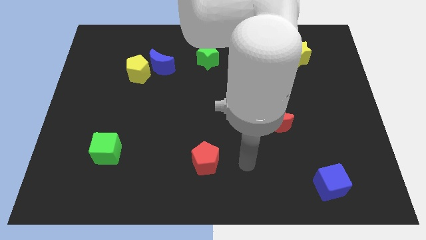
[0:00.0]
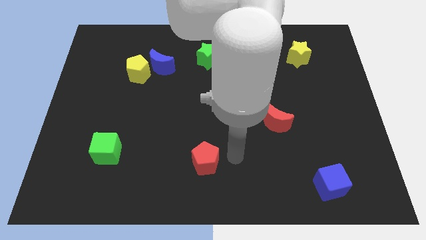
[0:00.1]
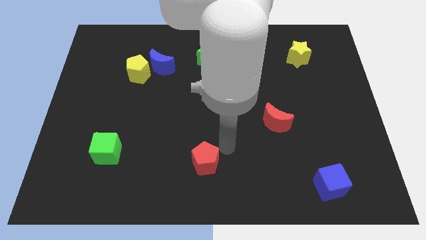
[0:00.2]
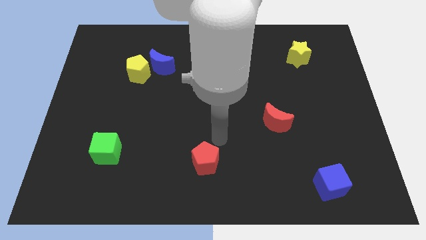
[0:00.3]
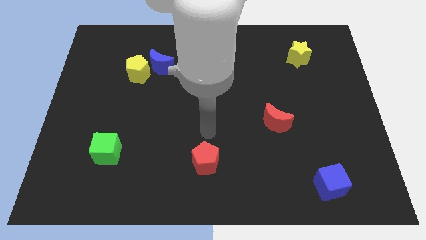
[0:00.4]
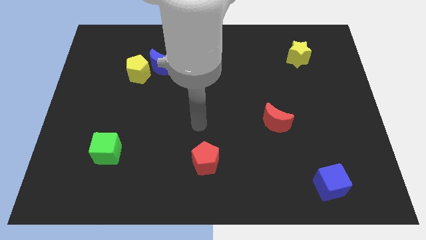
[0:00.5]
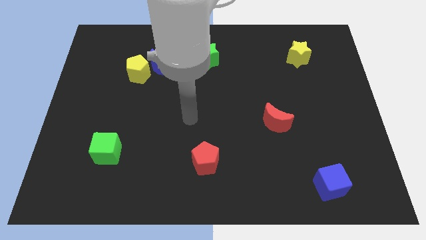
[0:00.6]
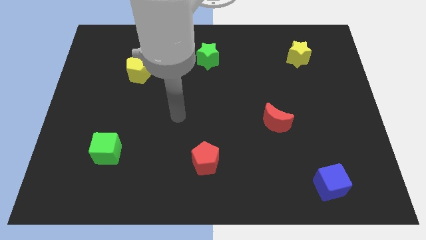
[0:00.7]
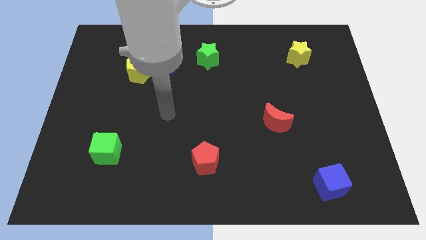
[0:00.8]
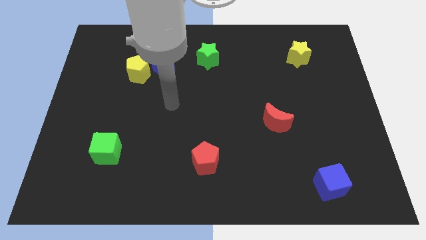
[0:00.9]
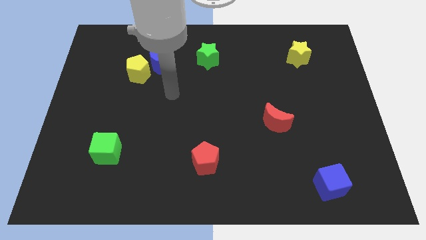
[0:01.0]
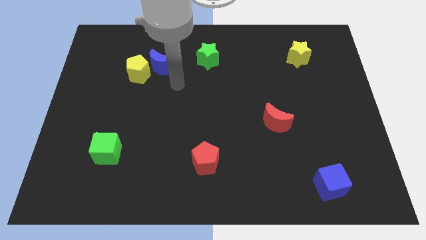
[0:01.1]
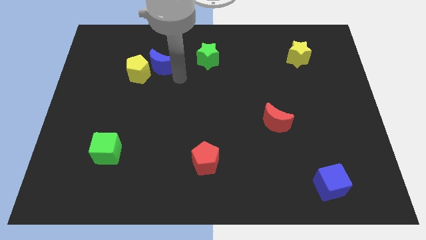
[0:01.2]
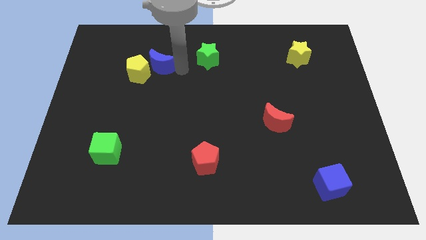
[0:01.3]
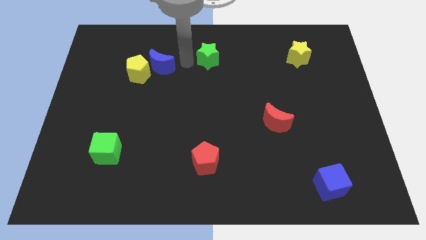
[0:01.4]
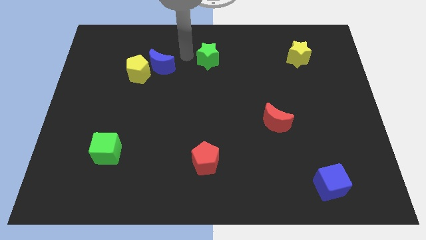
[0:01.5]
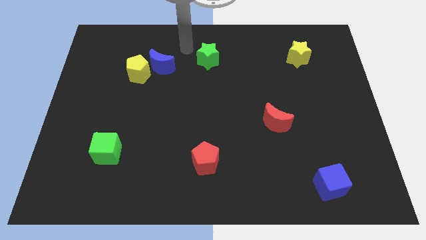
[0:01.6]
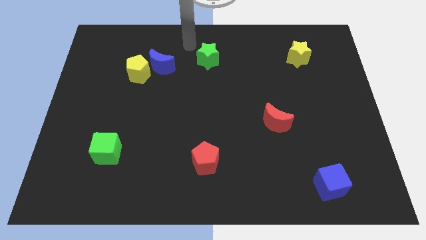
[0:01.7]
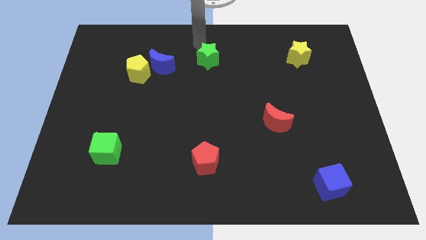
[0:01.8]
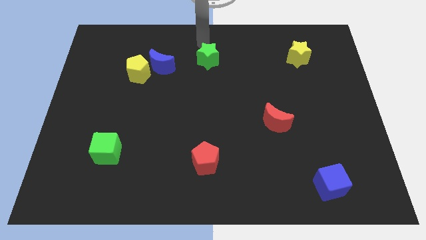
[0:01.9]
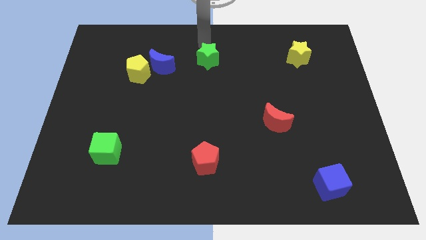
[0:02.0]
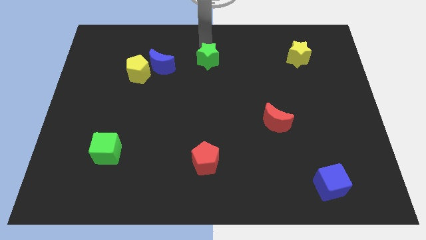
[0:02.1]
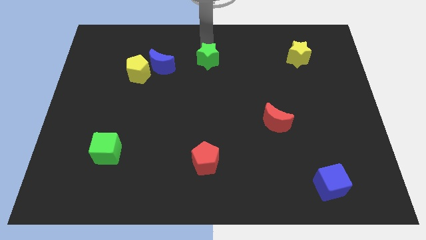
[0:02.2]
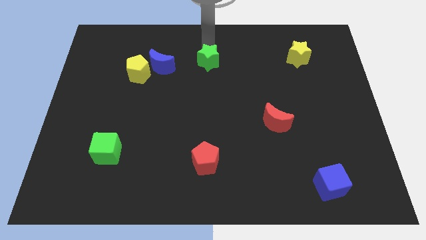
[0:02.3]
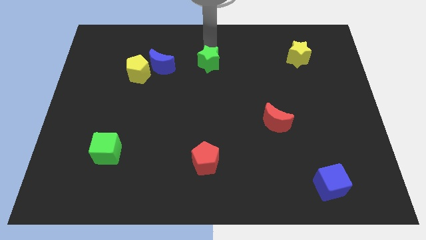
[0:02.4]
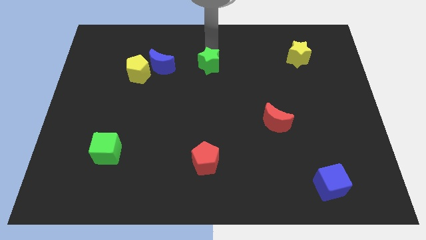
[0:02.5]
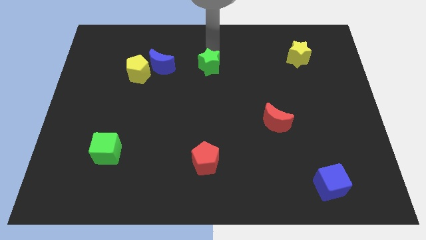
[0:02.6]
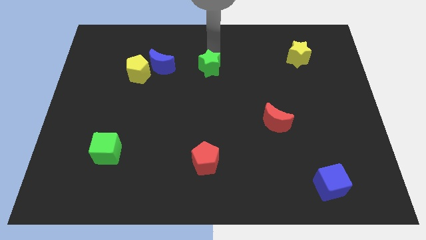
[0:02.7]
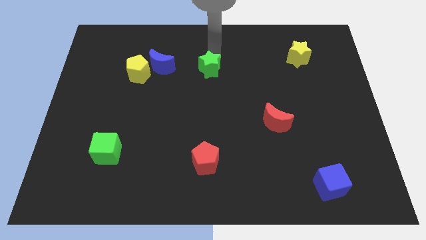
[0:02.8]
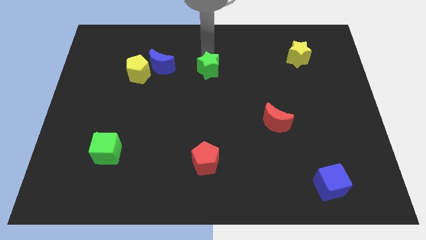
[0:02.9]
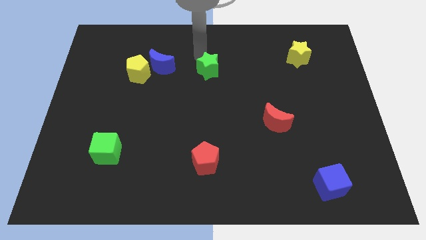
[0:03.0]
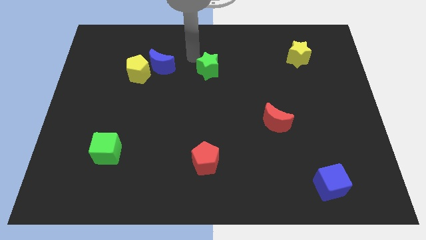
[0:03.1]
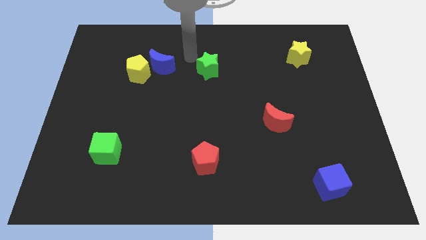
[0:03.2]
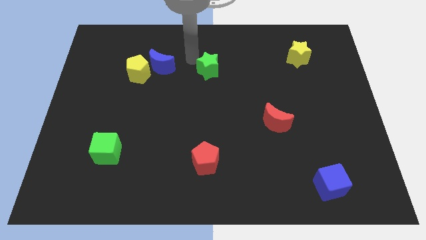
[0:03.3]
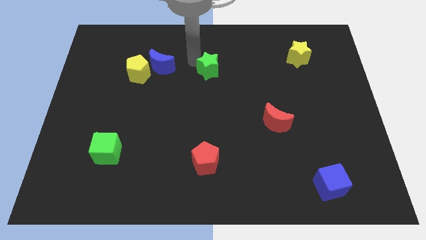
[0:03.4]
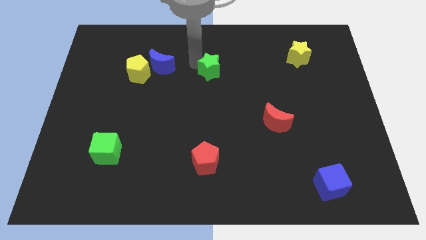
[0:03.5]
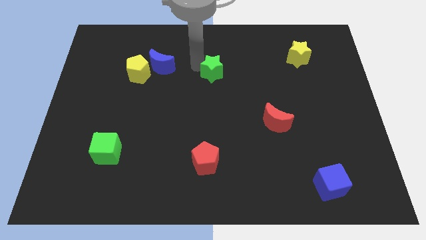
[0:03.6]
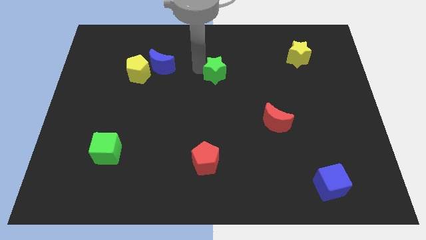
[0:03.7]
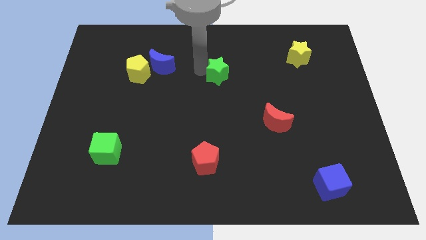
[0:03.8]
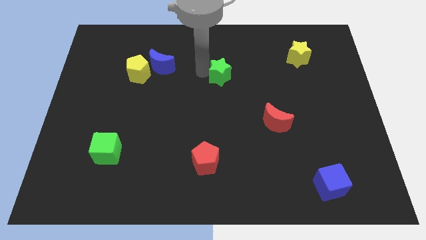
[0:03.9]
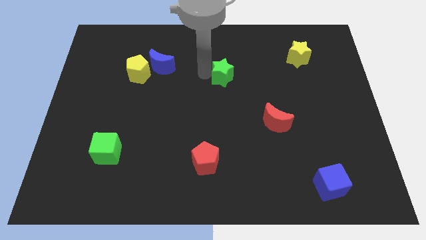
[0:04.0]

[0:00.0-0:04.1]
slightly move the green star down and to the right

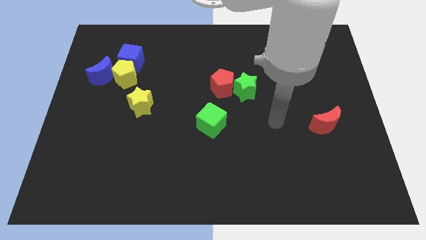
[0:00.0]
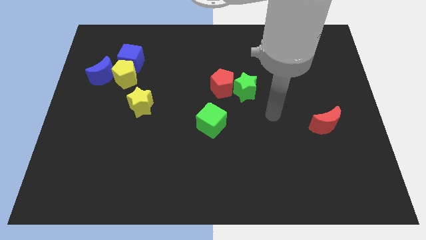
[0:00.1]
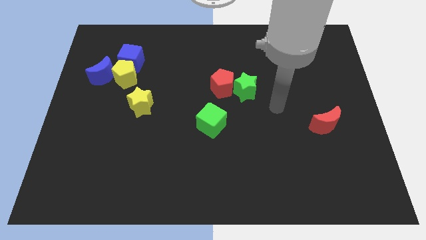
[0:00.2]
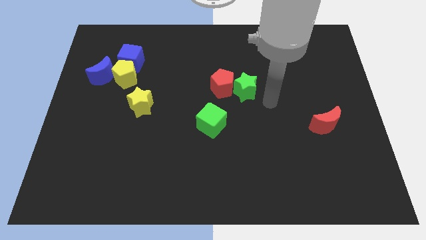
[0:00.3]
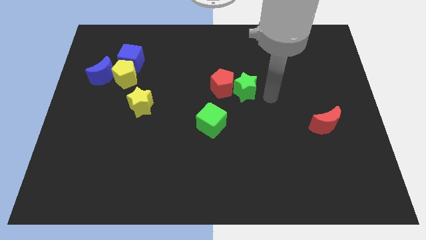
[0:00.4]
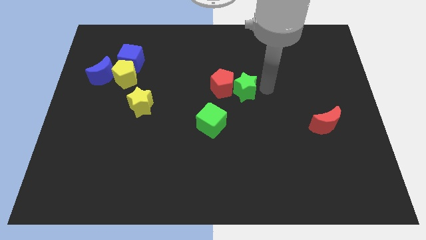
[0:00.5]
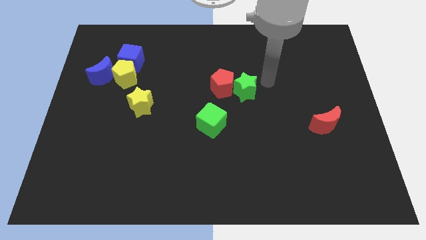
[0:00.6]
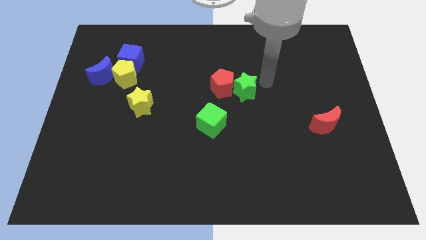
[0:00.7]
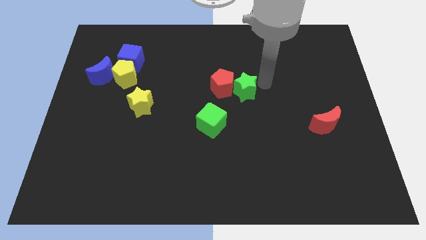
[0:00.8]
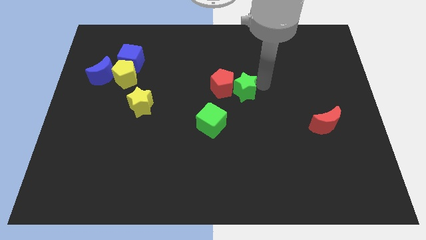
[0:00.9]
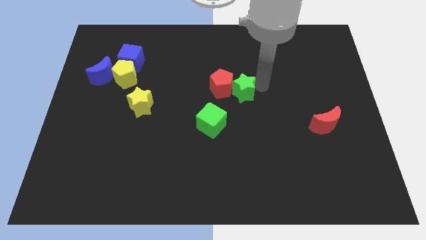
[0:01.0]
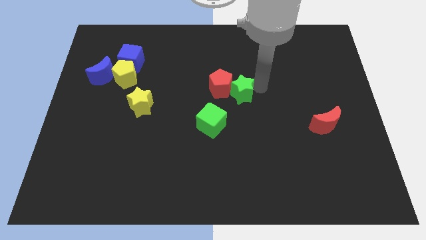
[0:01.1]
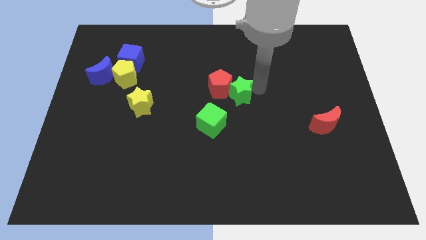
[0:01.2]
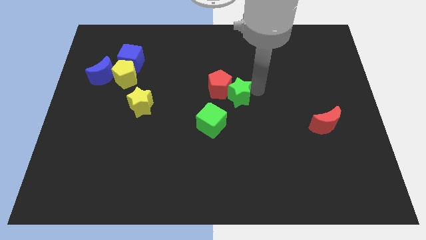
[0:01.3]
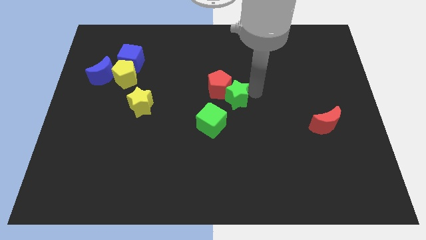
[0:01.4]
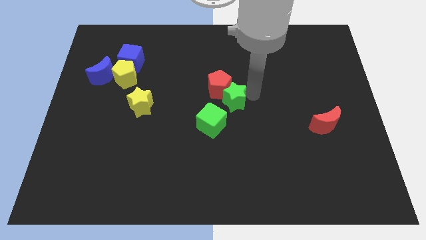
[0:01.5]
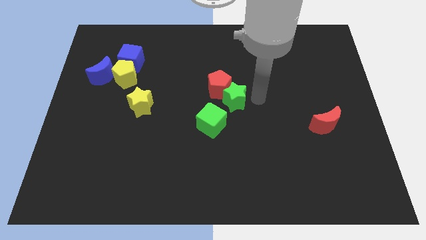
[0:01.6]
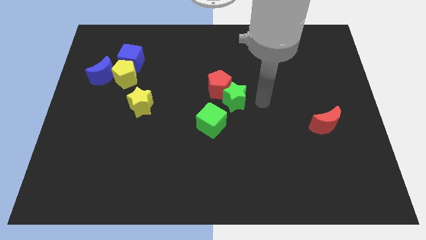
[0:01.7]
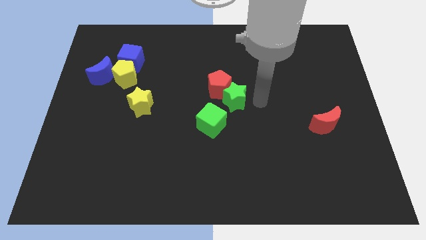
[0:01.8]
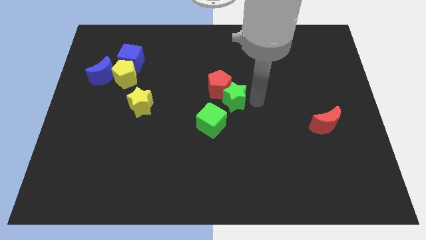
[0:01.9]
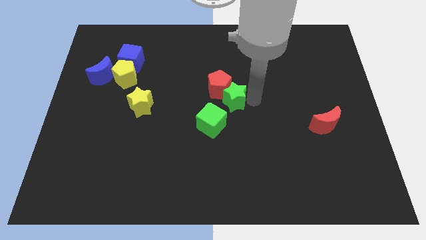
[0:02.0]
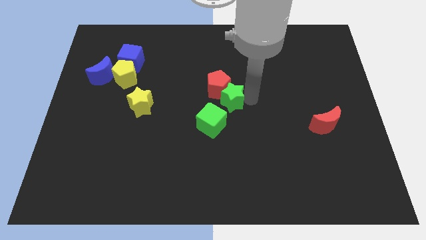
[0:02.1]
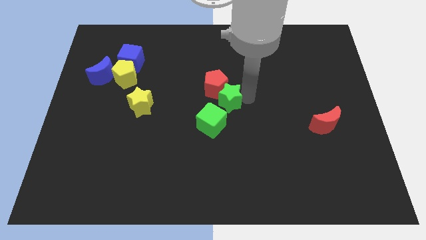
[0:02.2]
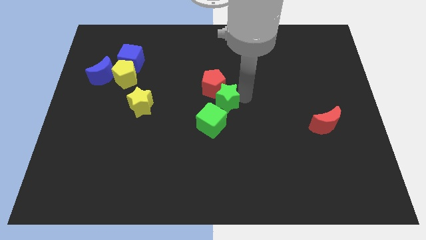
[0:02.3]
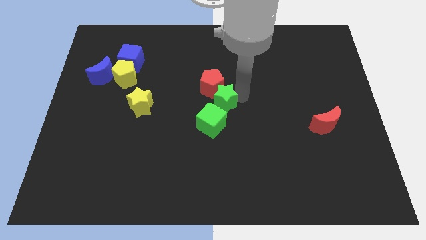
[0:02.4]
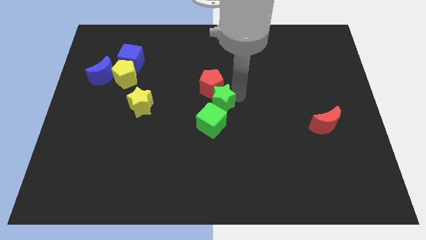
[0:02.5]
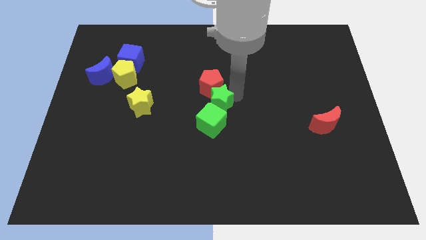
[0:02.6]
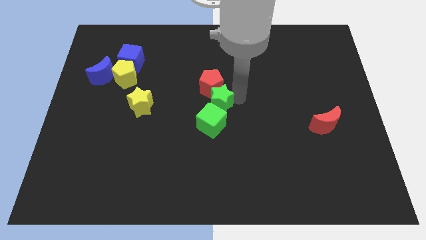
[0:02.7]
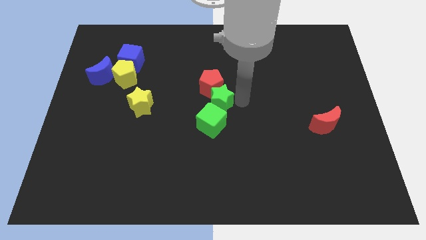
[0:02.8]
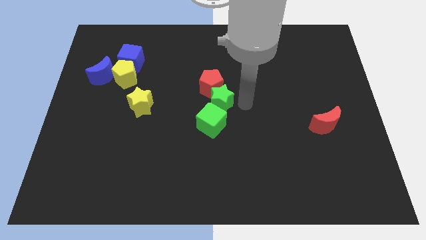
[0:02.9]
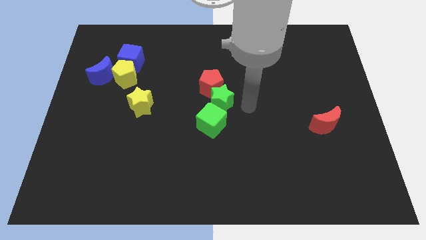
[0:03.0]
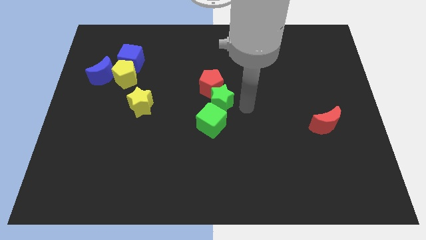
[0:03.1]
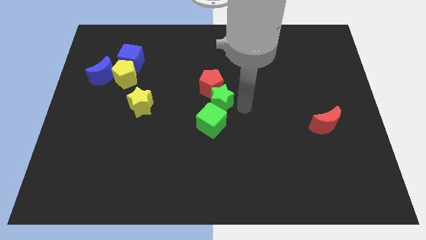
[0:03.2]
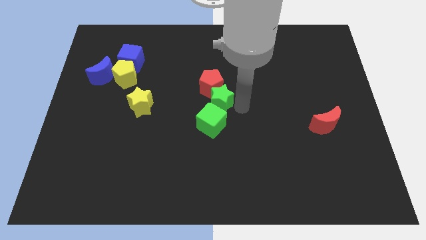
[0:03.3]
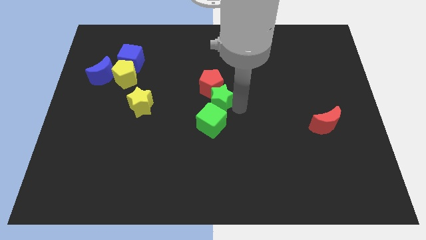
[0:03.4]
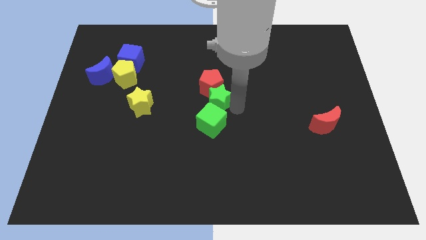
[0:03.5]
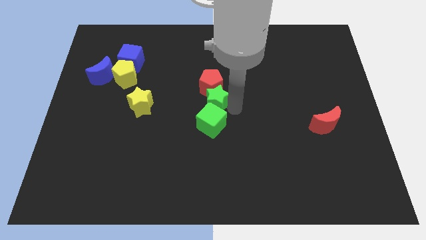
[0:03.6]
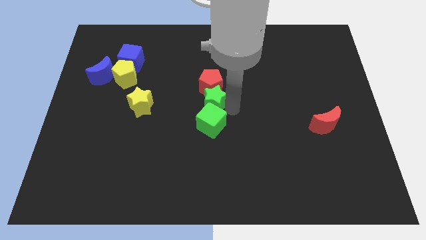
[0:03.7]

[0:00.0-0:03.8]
push the green star slightly left
